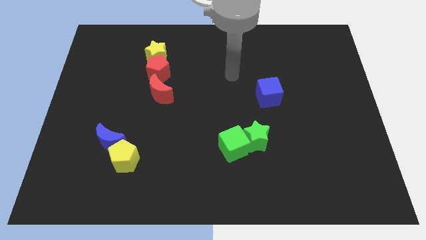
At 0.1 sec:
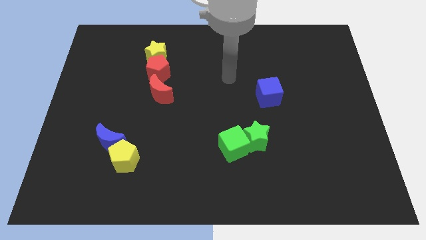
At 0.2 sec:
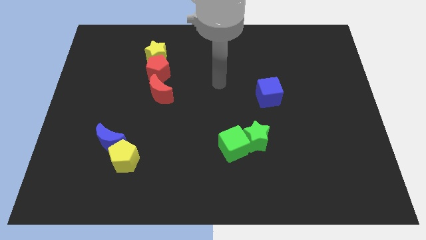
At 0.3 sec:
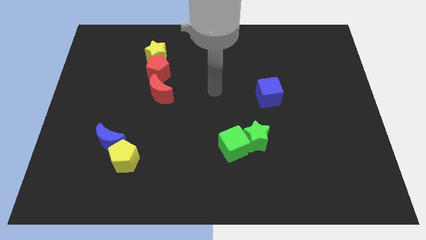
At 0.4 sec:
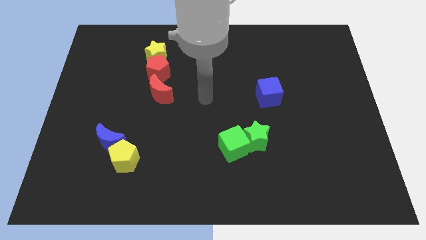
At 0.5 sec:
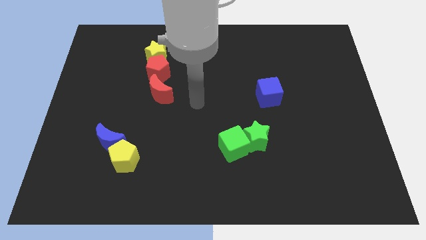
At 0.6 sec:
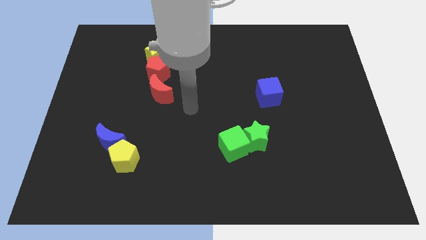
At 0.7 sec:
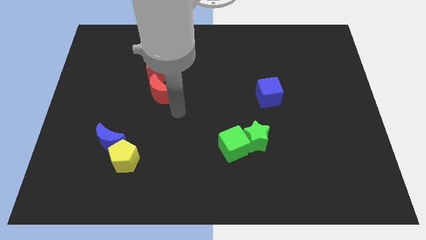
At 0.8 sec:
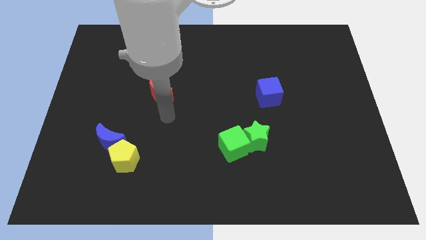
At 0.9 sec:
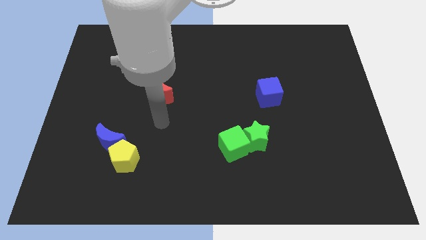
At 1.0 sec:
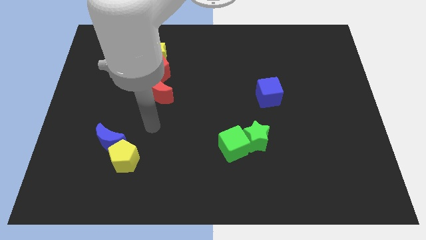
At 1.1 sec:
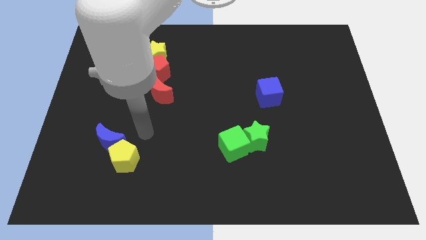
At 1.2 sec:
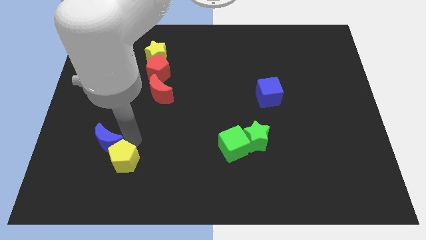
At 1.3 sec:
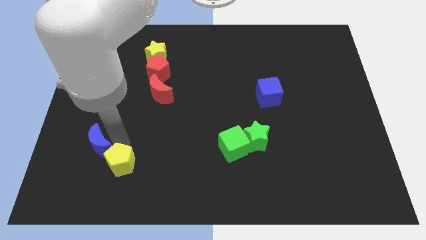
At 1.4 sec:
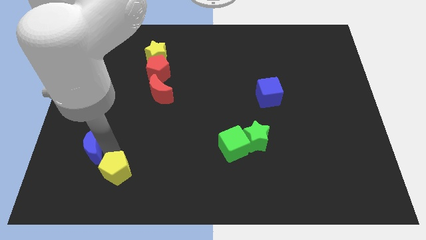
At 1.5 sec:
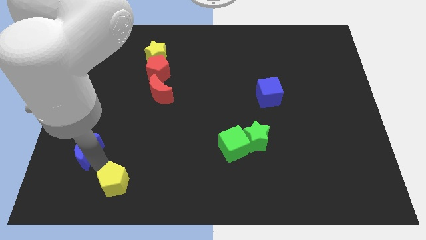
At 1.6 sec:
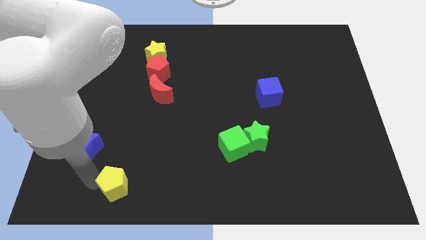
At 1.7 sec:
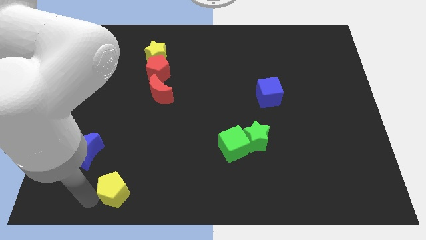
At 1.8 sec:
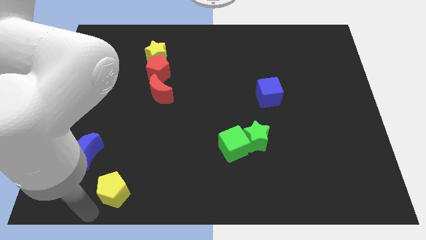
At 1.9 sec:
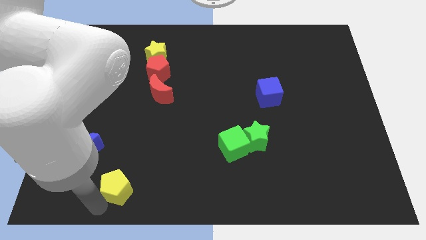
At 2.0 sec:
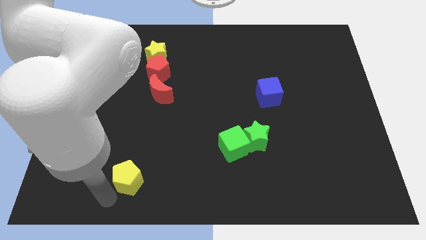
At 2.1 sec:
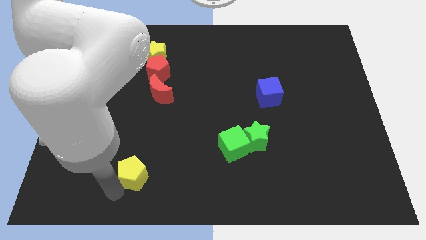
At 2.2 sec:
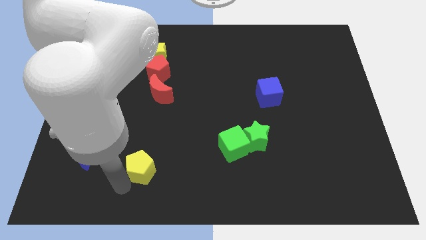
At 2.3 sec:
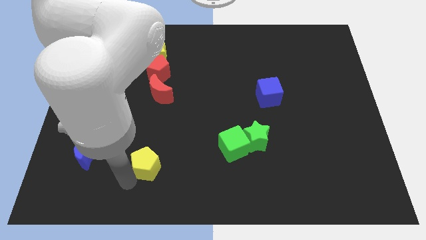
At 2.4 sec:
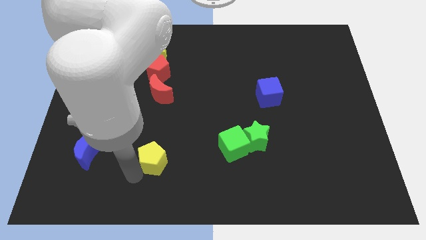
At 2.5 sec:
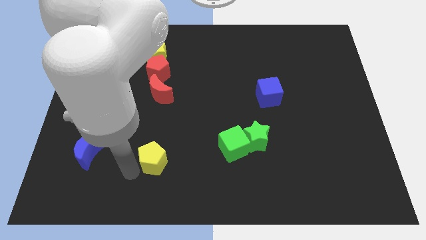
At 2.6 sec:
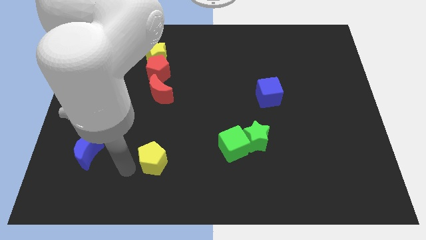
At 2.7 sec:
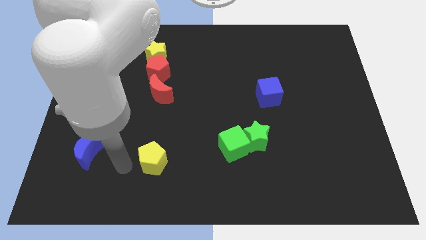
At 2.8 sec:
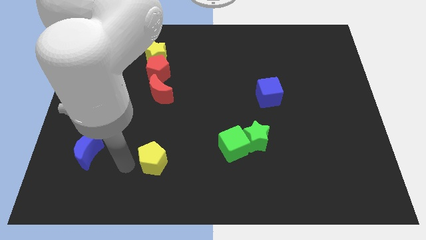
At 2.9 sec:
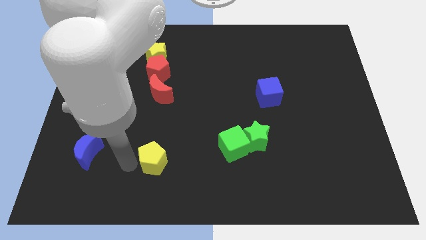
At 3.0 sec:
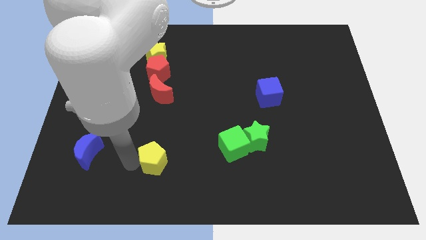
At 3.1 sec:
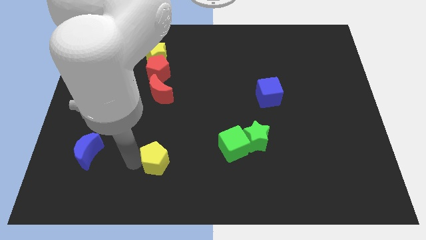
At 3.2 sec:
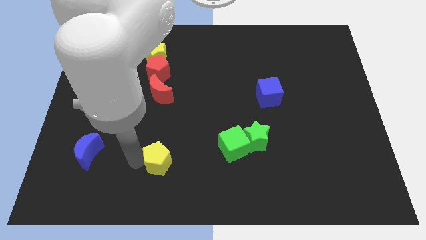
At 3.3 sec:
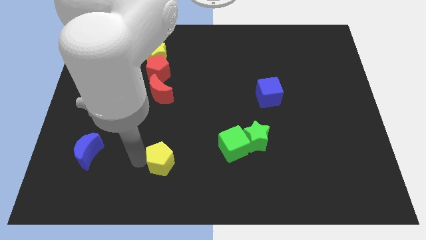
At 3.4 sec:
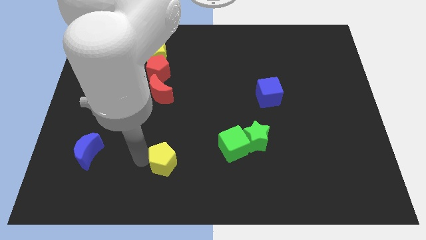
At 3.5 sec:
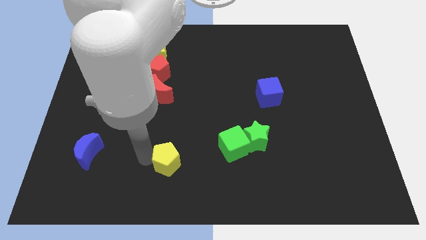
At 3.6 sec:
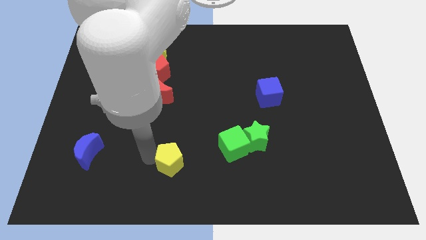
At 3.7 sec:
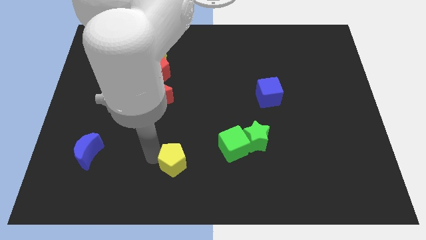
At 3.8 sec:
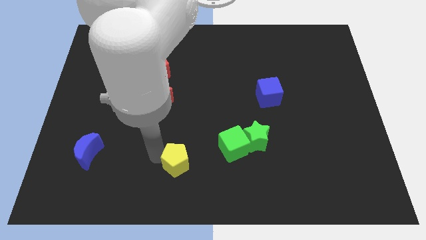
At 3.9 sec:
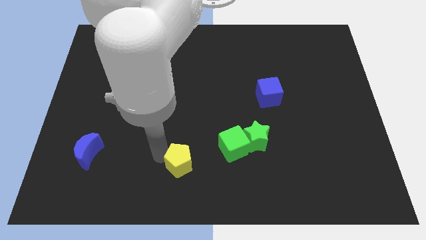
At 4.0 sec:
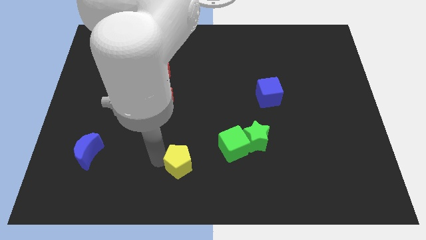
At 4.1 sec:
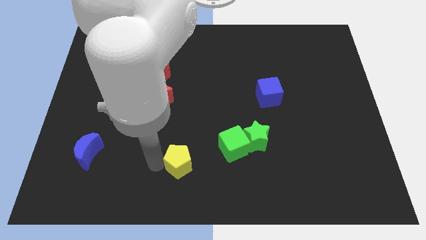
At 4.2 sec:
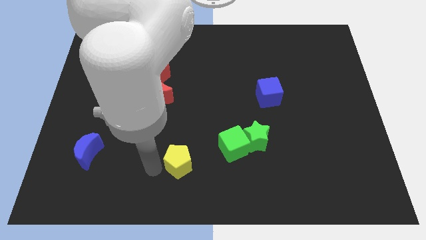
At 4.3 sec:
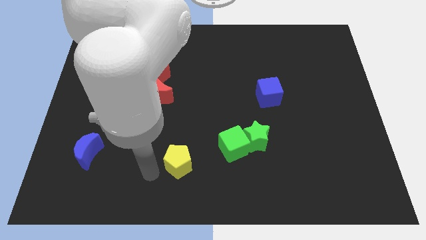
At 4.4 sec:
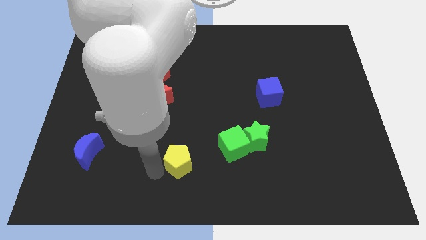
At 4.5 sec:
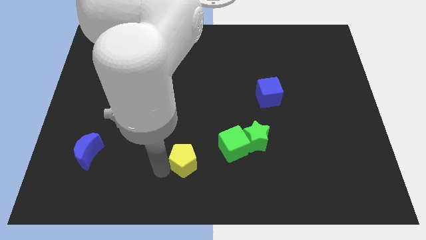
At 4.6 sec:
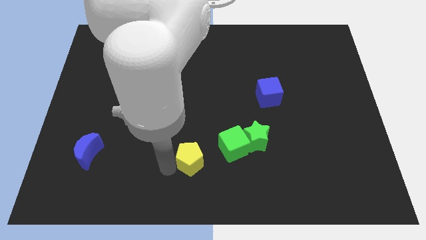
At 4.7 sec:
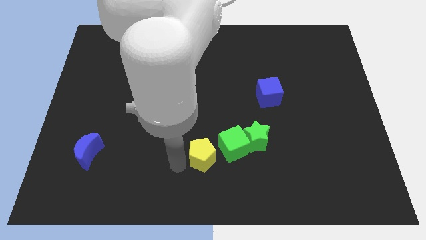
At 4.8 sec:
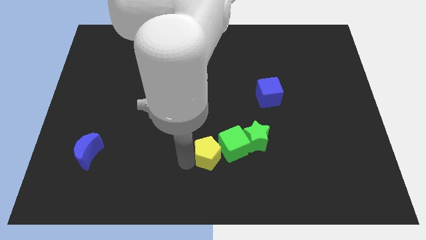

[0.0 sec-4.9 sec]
push the yellow pentagon close to the green cube

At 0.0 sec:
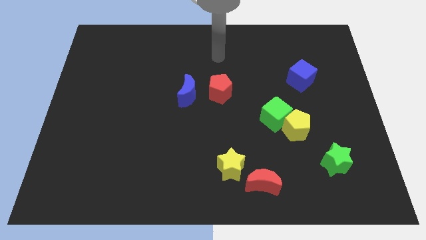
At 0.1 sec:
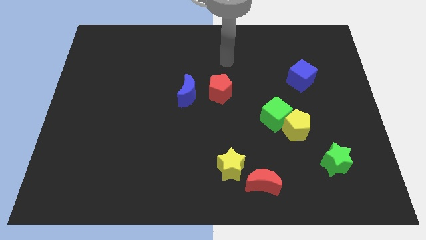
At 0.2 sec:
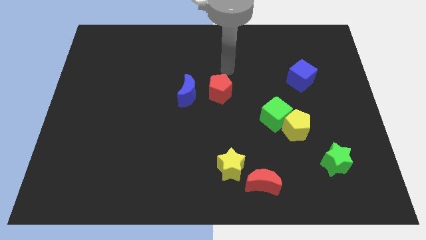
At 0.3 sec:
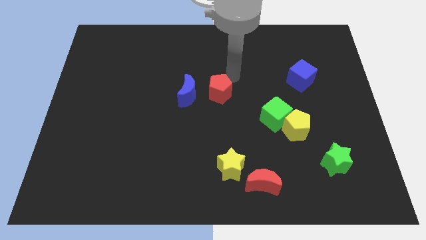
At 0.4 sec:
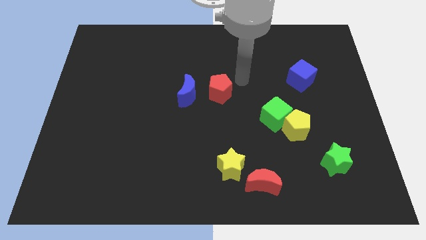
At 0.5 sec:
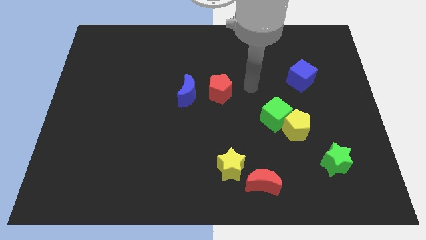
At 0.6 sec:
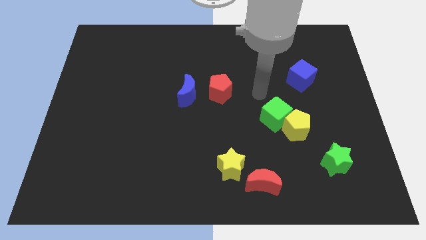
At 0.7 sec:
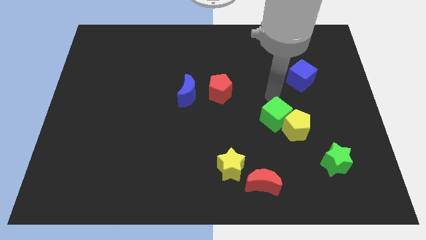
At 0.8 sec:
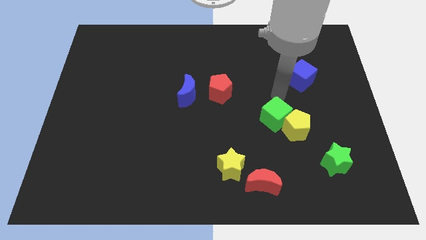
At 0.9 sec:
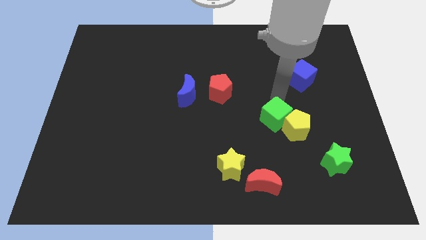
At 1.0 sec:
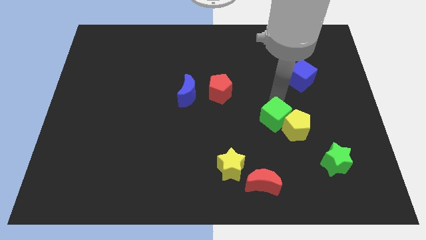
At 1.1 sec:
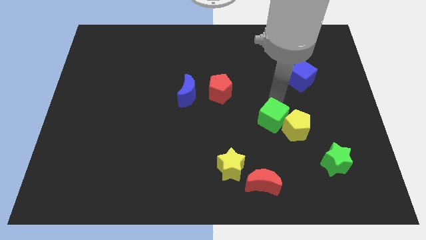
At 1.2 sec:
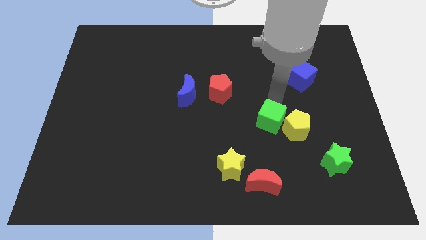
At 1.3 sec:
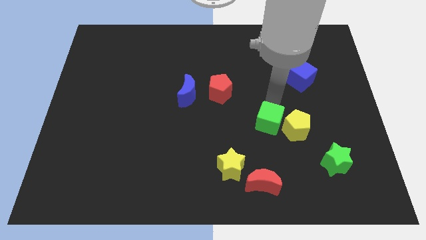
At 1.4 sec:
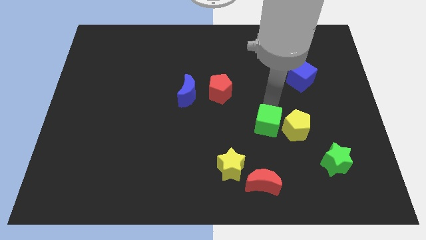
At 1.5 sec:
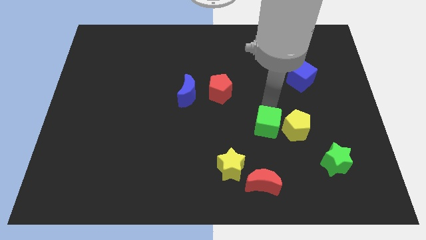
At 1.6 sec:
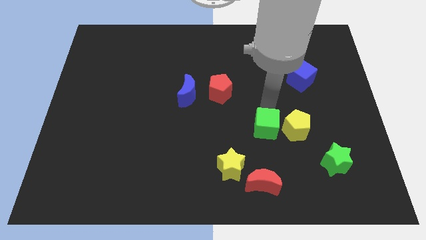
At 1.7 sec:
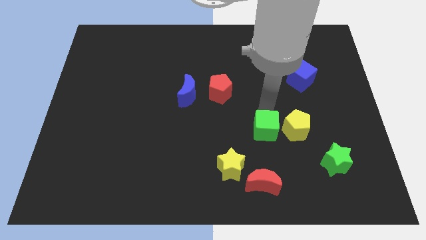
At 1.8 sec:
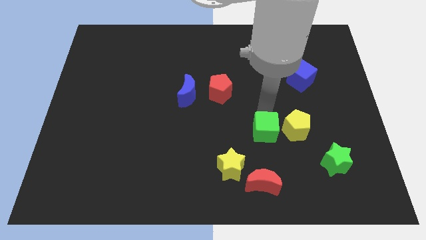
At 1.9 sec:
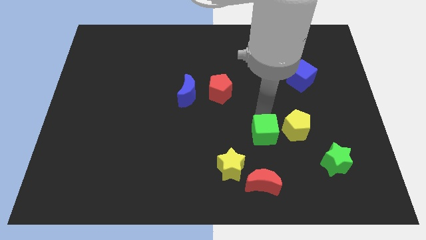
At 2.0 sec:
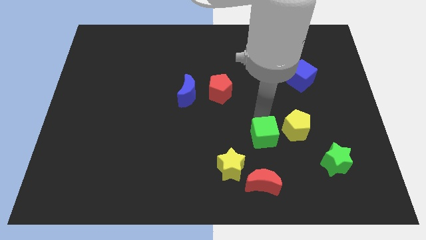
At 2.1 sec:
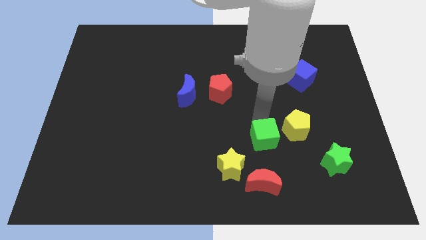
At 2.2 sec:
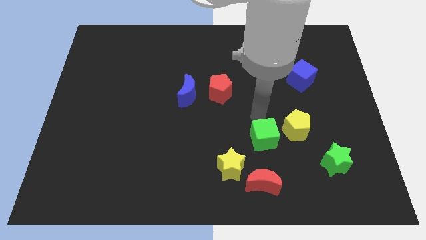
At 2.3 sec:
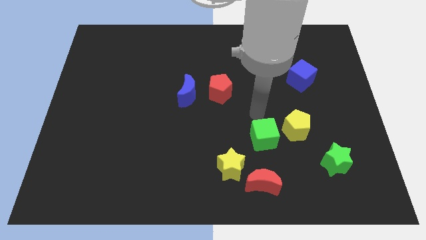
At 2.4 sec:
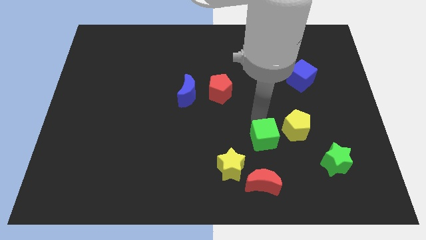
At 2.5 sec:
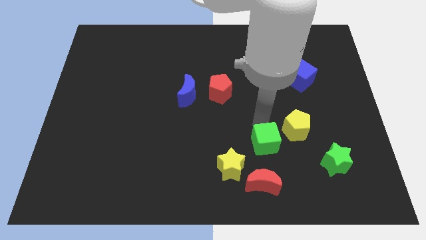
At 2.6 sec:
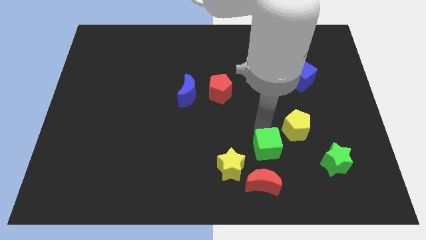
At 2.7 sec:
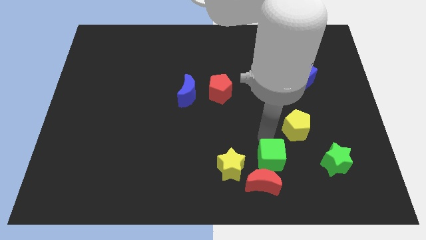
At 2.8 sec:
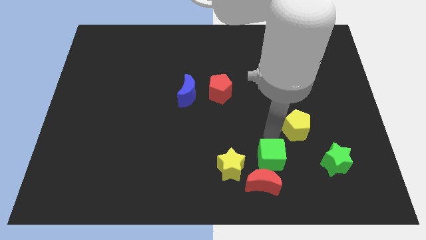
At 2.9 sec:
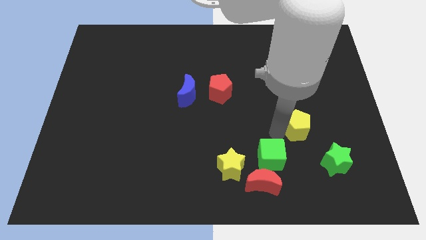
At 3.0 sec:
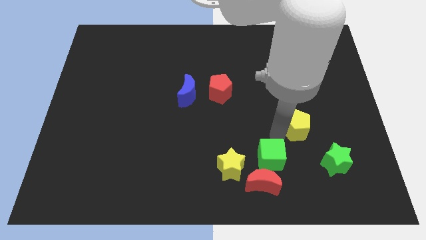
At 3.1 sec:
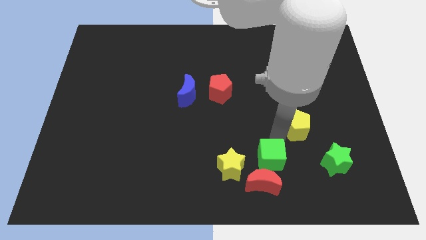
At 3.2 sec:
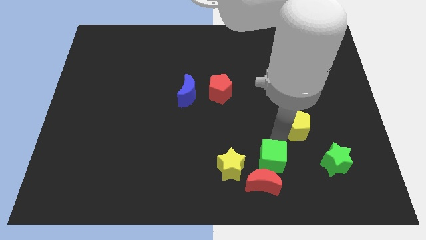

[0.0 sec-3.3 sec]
put the green cube towards the red moon
